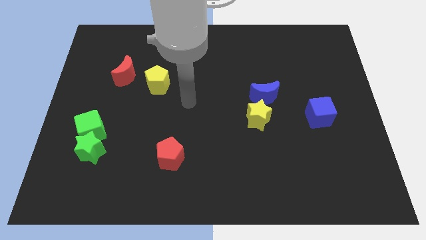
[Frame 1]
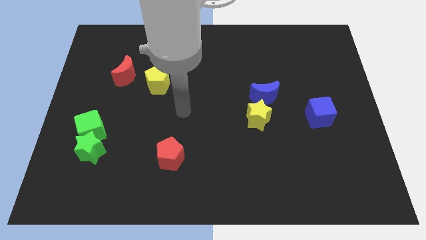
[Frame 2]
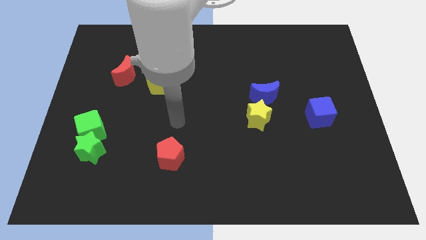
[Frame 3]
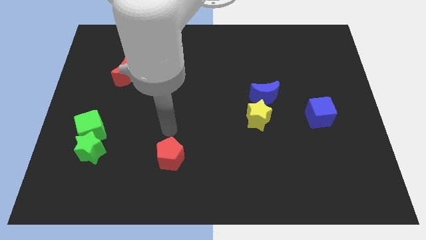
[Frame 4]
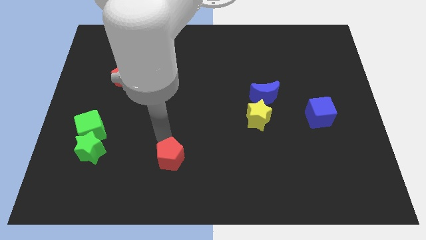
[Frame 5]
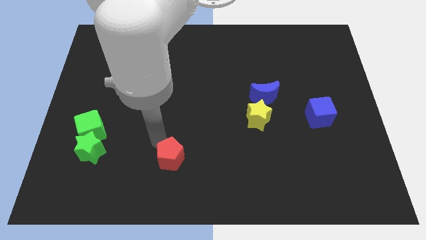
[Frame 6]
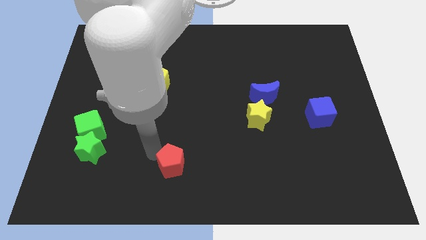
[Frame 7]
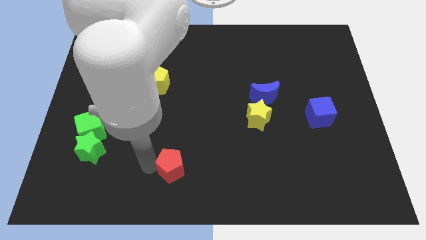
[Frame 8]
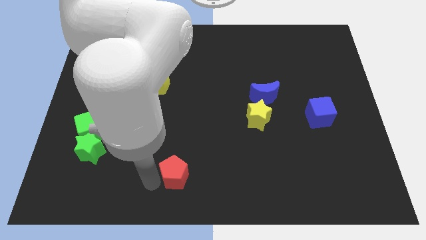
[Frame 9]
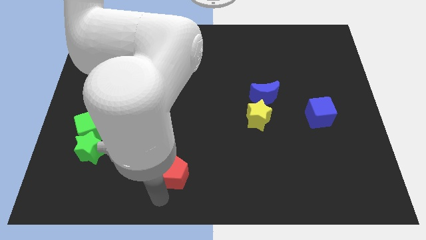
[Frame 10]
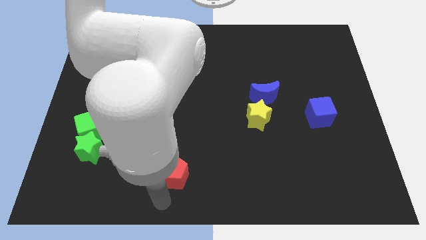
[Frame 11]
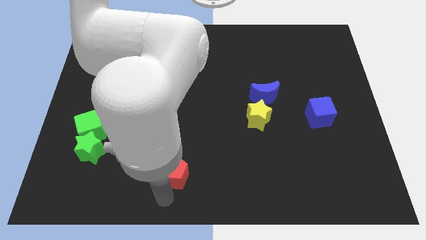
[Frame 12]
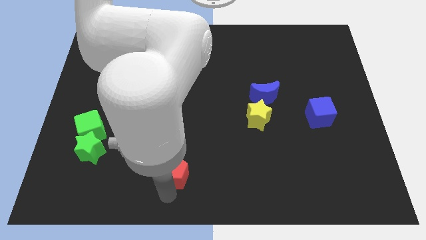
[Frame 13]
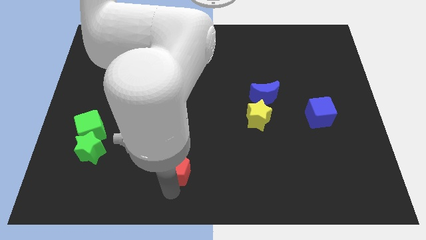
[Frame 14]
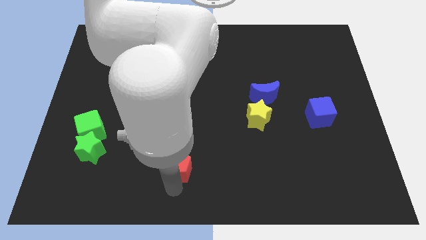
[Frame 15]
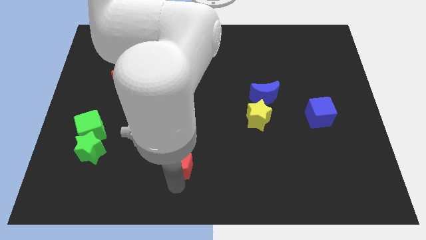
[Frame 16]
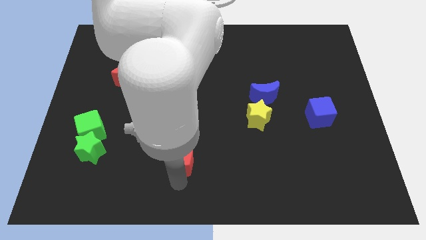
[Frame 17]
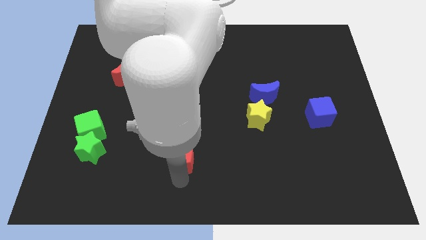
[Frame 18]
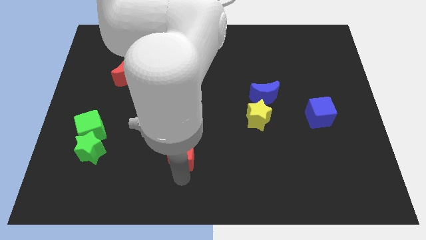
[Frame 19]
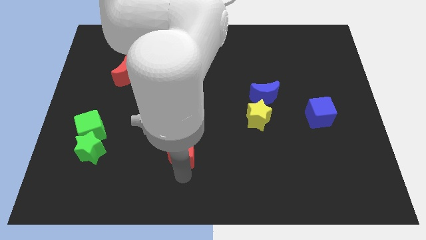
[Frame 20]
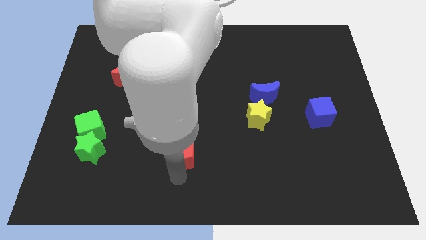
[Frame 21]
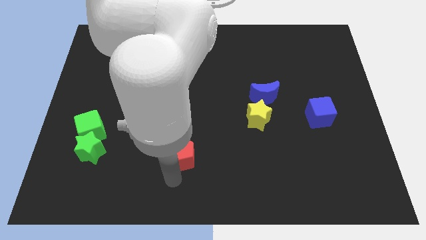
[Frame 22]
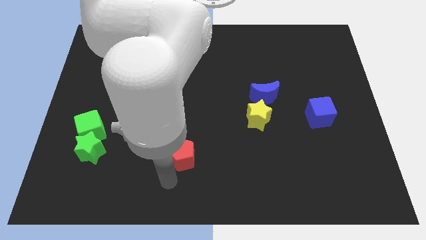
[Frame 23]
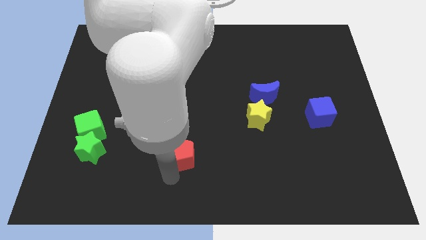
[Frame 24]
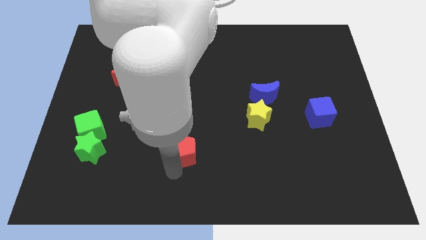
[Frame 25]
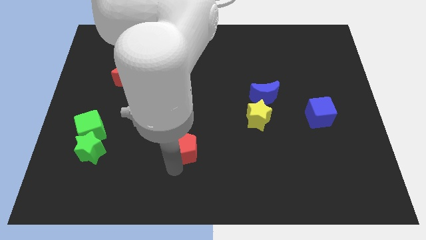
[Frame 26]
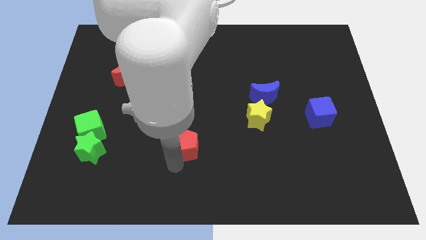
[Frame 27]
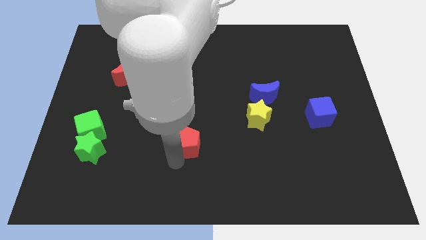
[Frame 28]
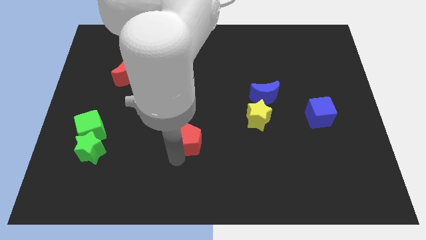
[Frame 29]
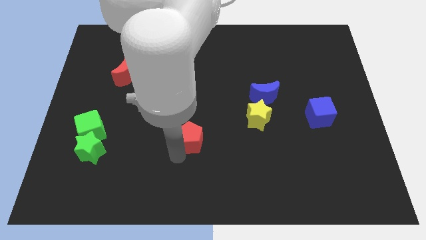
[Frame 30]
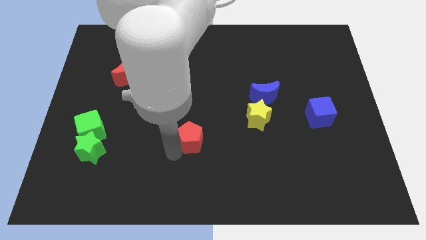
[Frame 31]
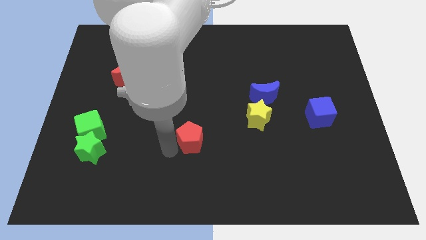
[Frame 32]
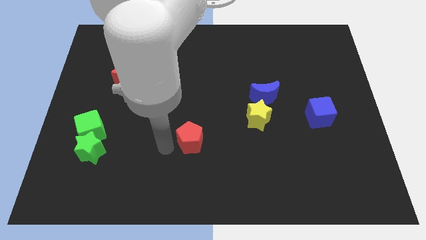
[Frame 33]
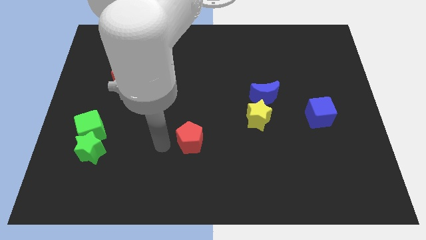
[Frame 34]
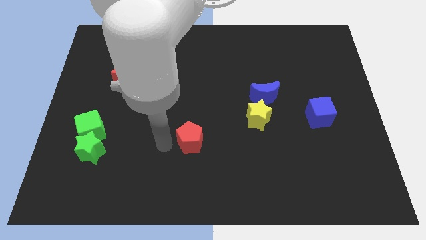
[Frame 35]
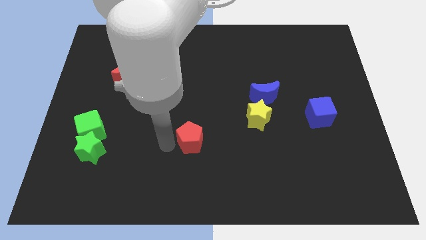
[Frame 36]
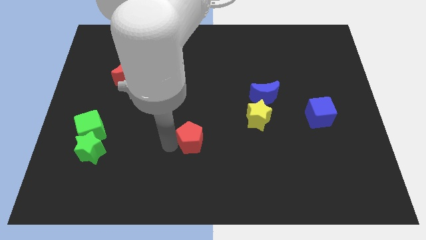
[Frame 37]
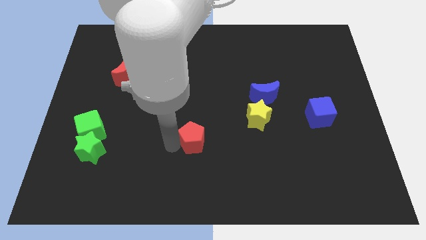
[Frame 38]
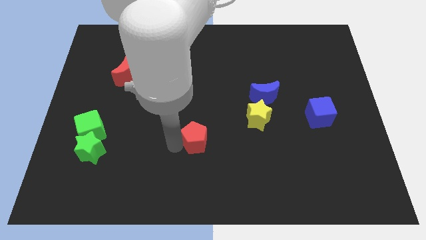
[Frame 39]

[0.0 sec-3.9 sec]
move the red pentagon diagonally up and right slightly

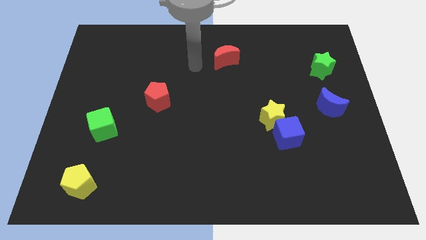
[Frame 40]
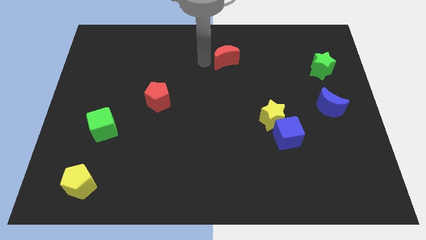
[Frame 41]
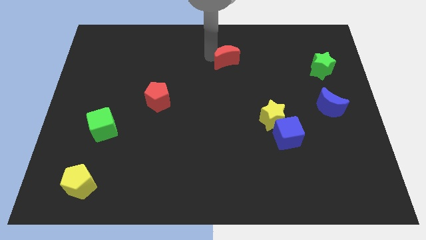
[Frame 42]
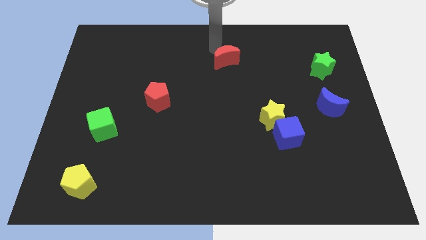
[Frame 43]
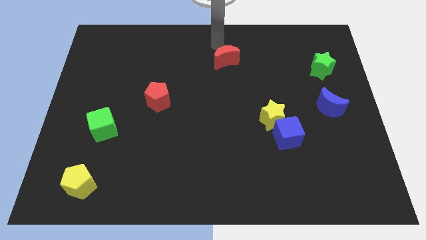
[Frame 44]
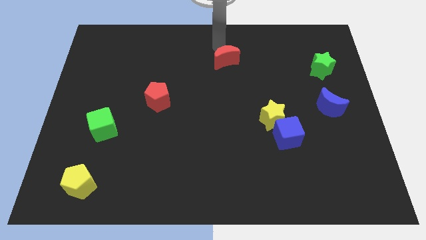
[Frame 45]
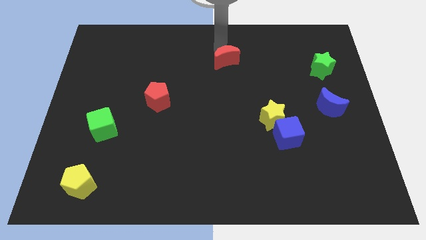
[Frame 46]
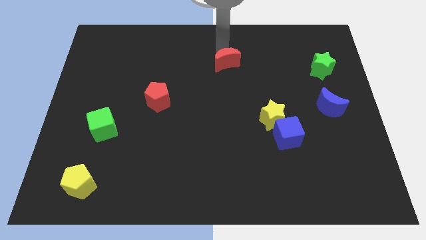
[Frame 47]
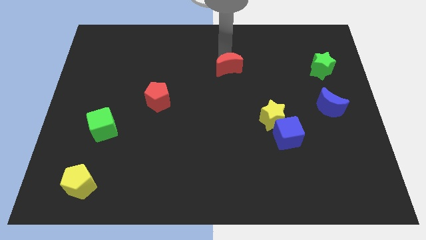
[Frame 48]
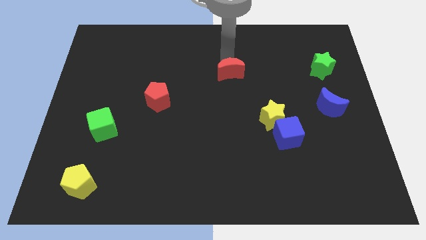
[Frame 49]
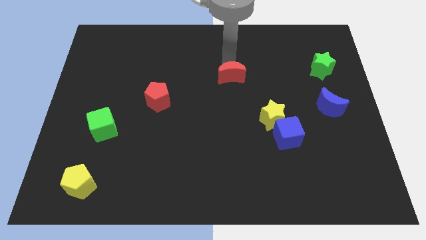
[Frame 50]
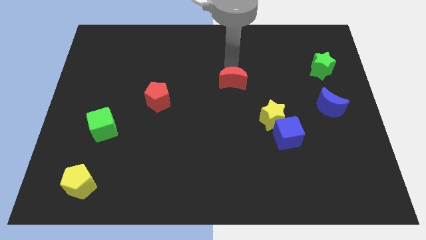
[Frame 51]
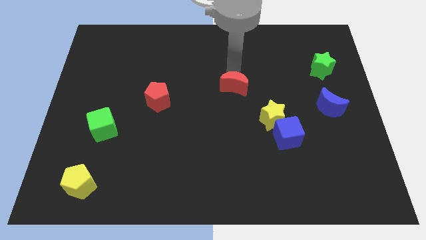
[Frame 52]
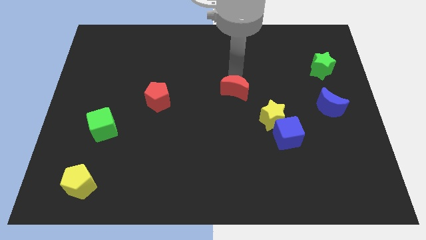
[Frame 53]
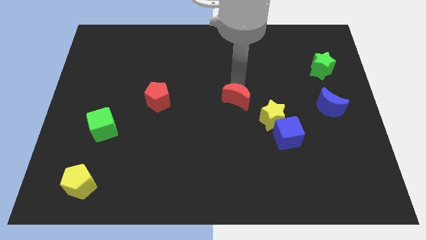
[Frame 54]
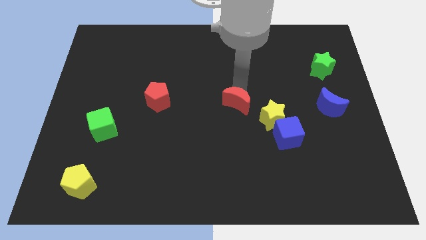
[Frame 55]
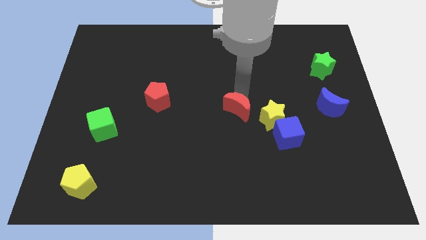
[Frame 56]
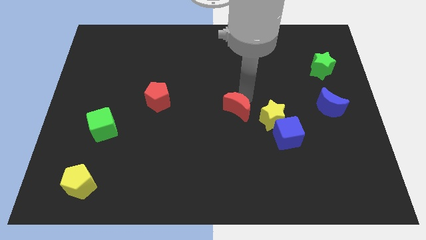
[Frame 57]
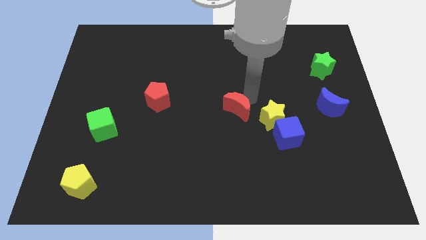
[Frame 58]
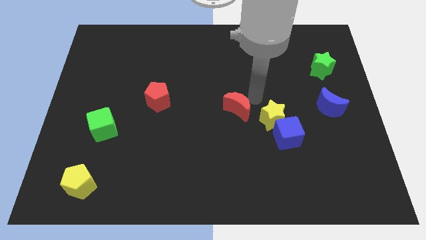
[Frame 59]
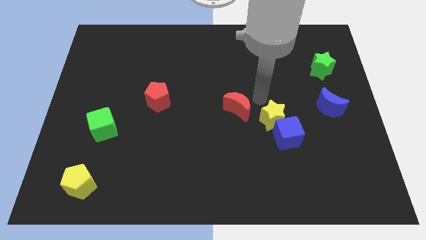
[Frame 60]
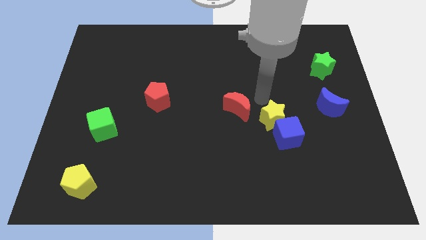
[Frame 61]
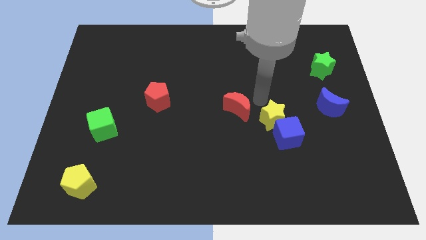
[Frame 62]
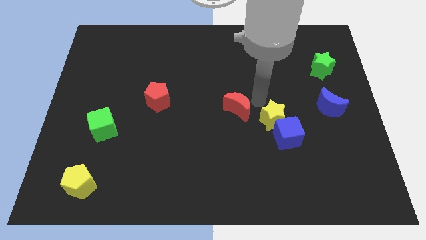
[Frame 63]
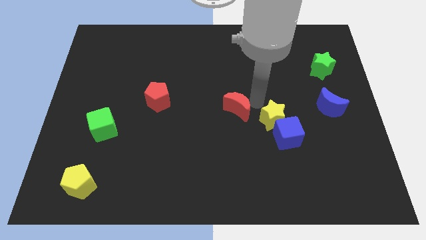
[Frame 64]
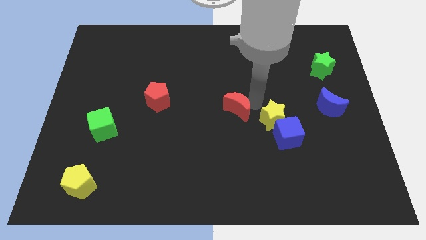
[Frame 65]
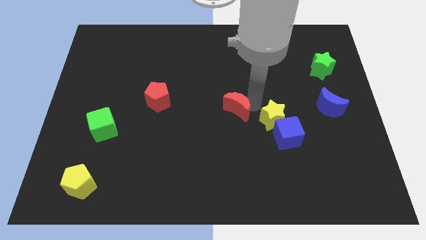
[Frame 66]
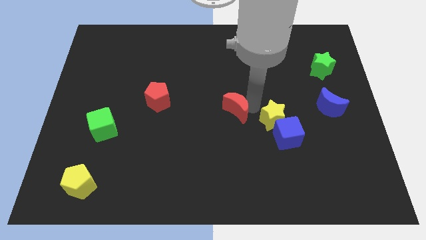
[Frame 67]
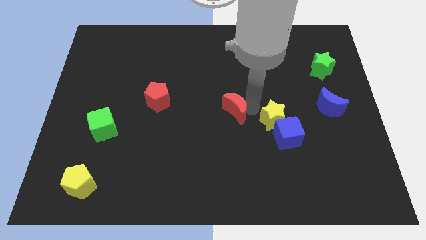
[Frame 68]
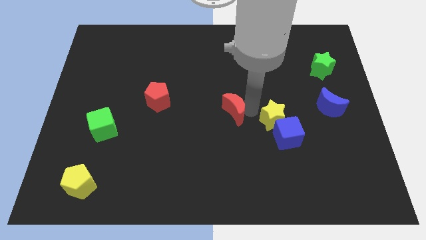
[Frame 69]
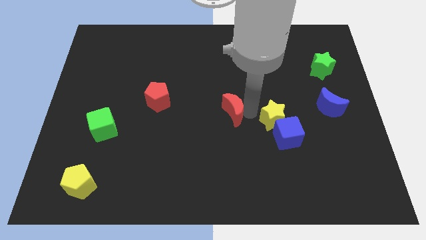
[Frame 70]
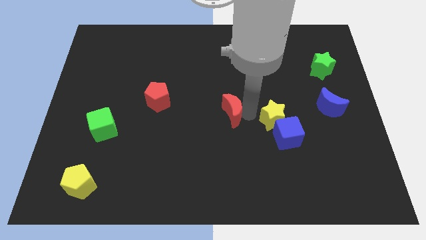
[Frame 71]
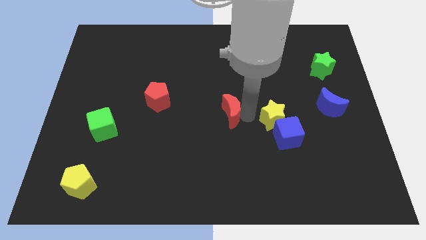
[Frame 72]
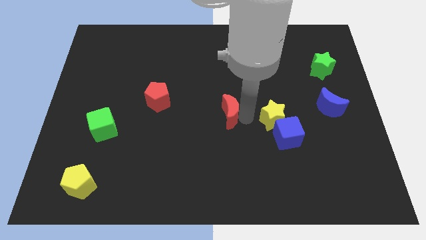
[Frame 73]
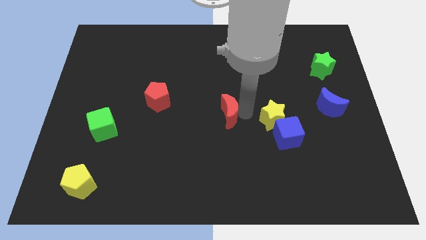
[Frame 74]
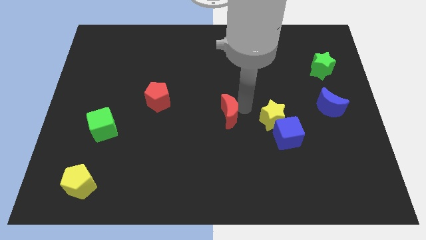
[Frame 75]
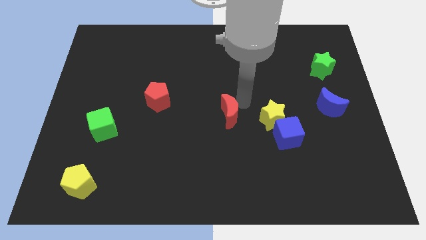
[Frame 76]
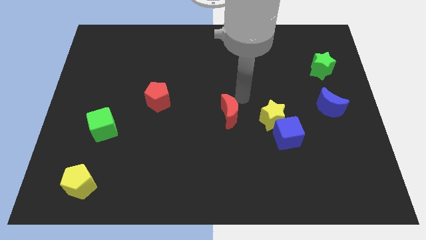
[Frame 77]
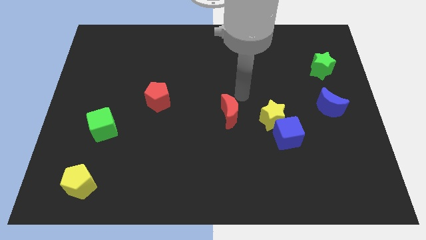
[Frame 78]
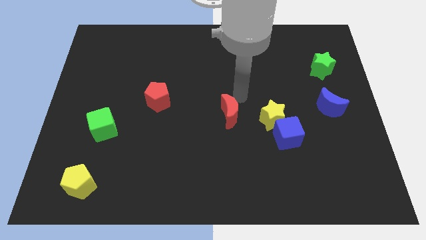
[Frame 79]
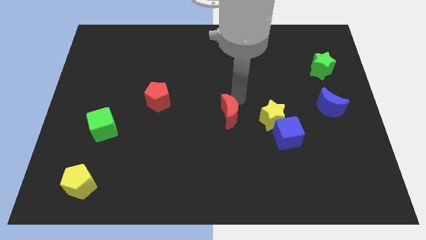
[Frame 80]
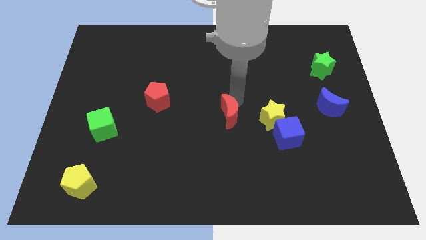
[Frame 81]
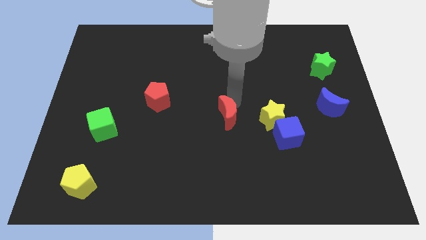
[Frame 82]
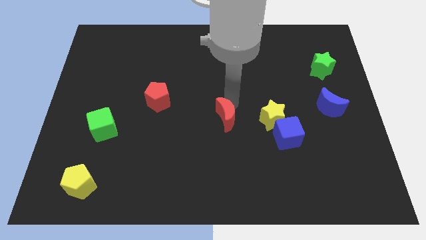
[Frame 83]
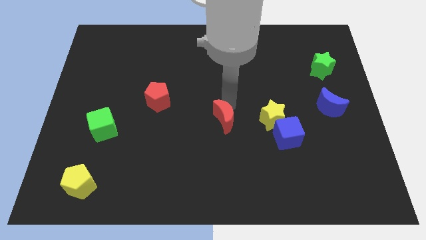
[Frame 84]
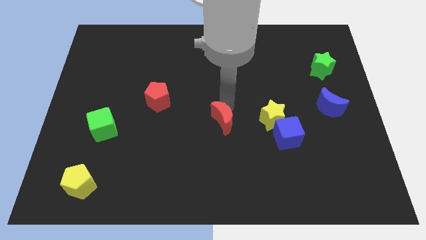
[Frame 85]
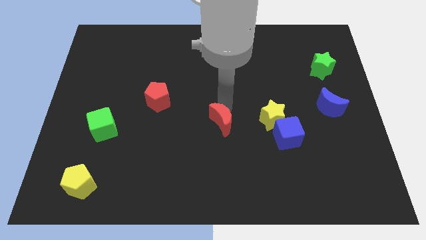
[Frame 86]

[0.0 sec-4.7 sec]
slide the red moon down
